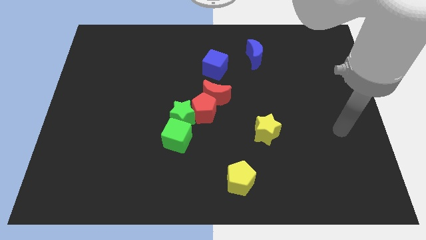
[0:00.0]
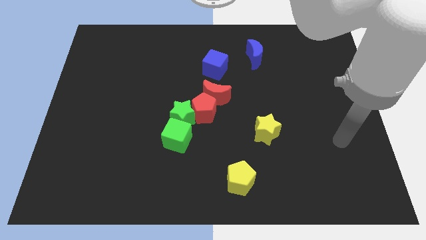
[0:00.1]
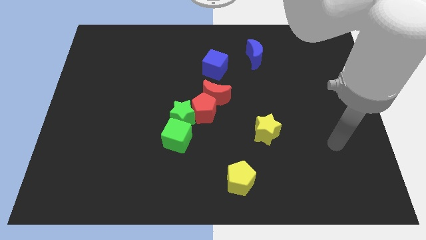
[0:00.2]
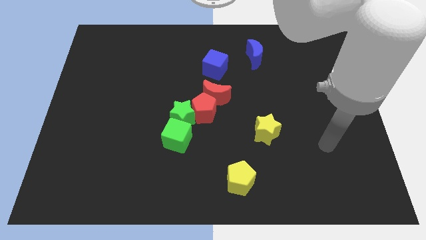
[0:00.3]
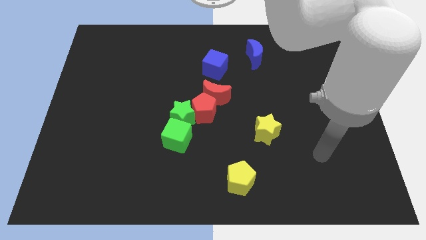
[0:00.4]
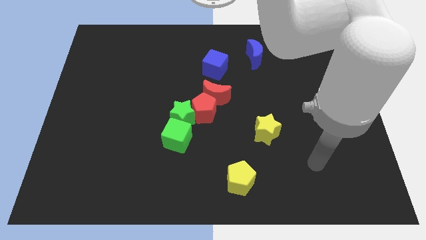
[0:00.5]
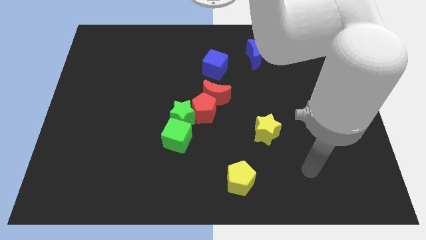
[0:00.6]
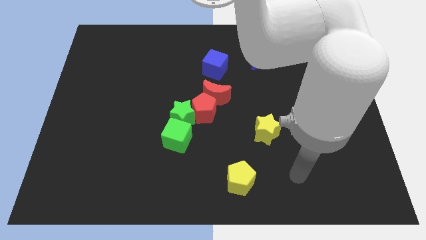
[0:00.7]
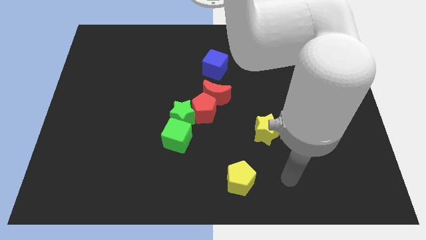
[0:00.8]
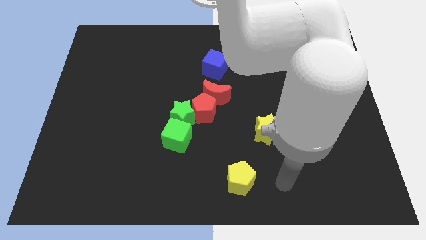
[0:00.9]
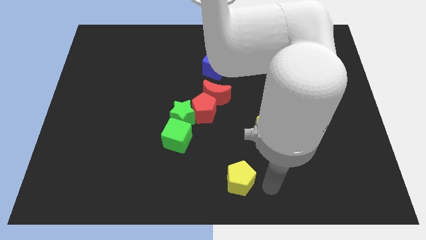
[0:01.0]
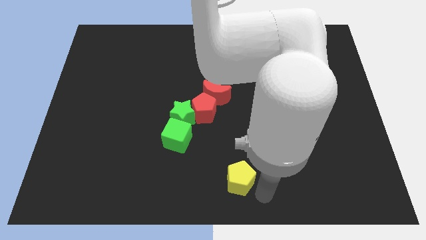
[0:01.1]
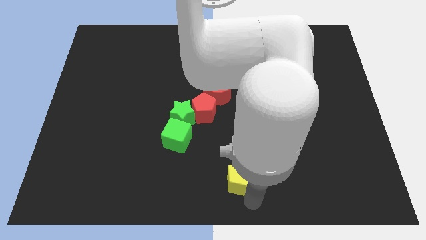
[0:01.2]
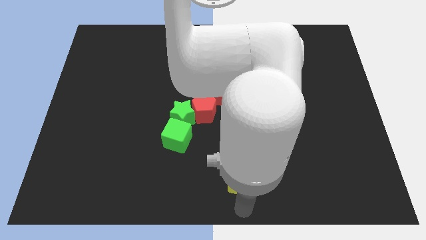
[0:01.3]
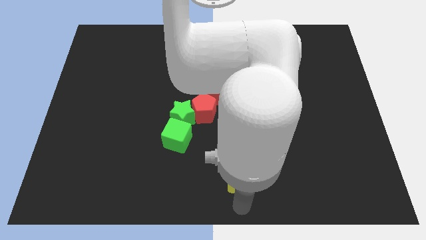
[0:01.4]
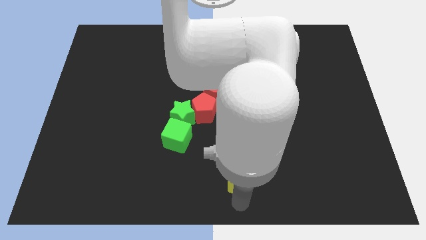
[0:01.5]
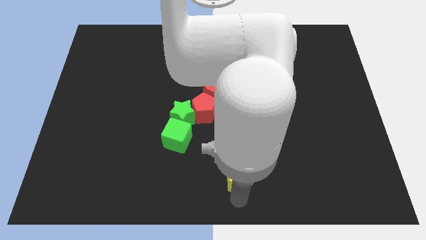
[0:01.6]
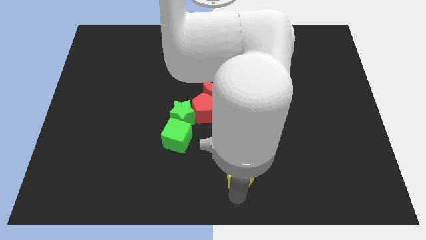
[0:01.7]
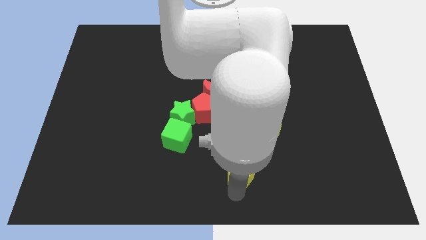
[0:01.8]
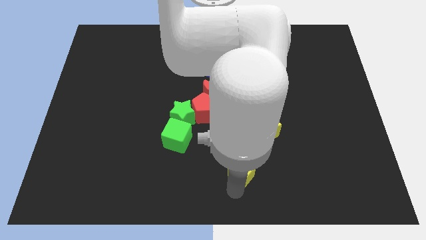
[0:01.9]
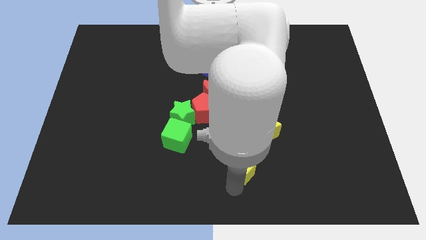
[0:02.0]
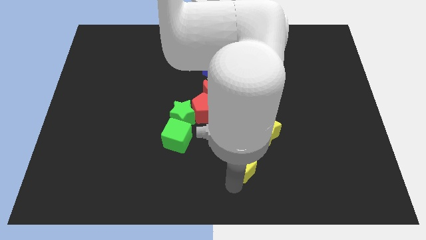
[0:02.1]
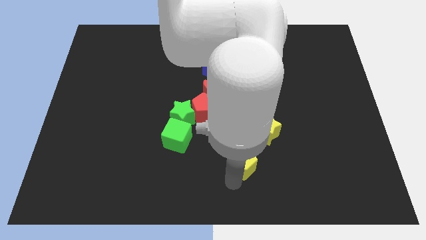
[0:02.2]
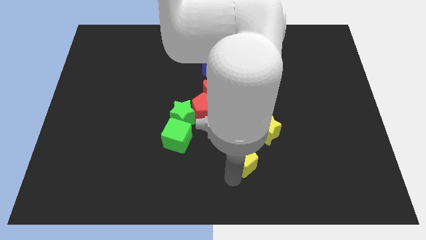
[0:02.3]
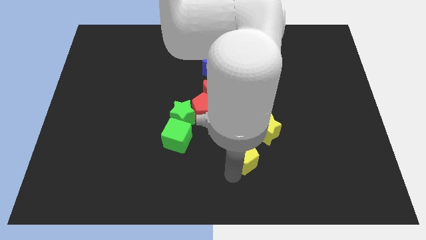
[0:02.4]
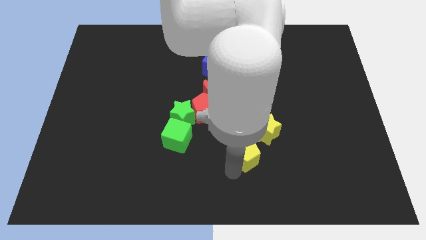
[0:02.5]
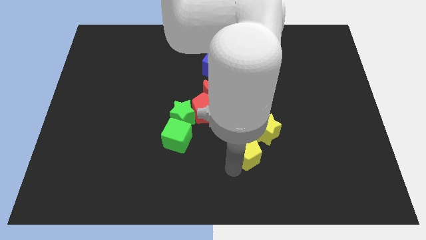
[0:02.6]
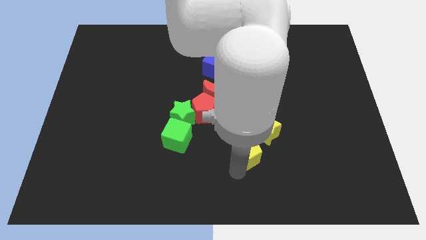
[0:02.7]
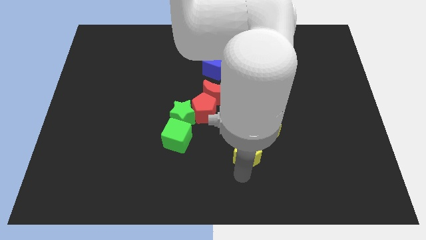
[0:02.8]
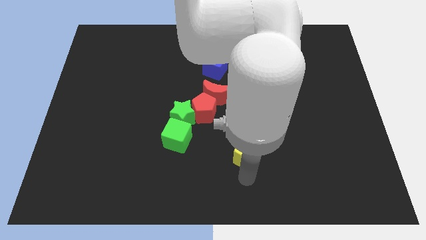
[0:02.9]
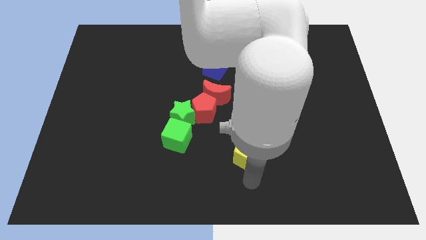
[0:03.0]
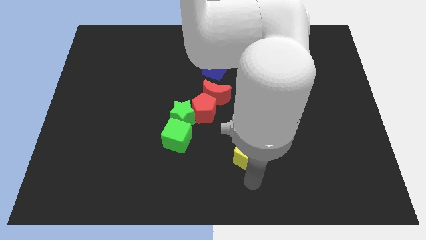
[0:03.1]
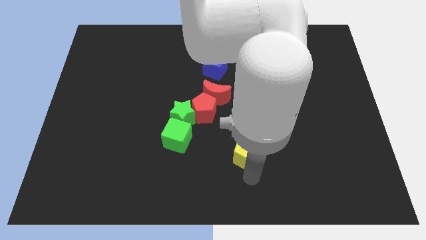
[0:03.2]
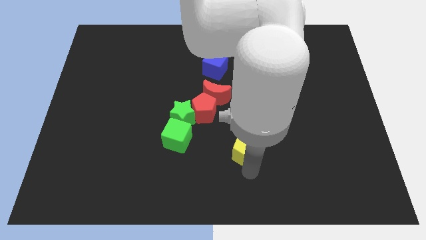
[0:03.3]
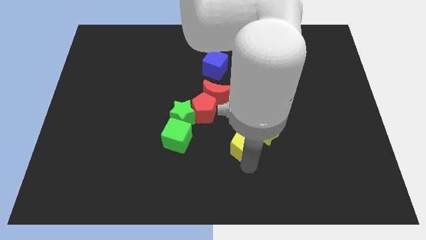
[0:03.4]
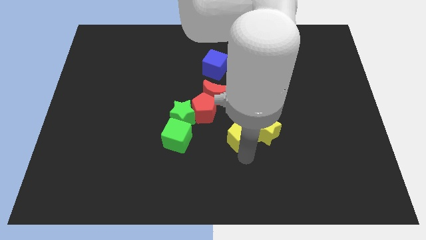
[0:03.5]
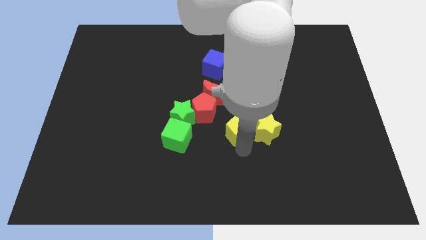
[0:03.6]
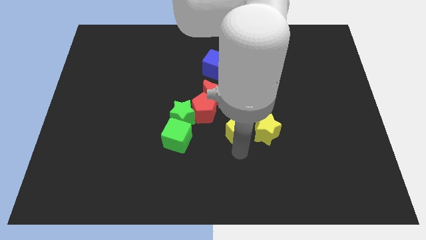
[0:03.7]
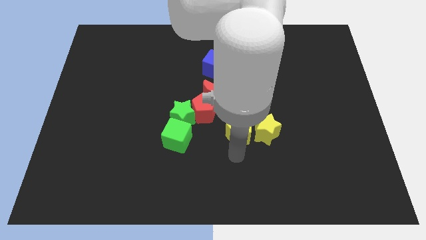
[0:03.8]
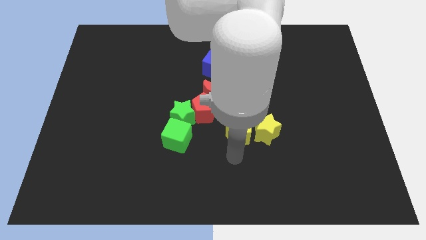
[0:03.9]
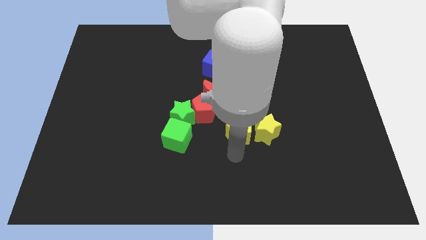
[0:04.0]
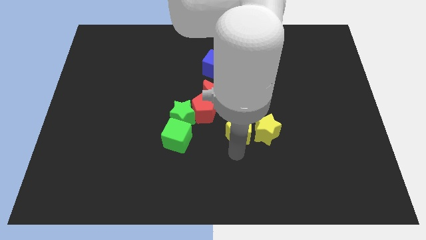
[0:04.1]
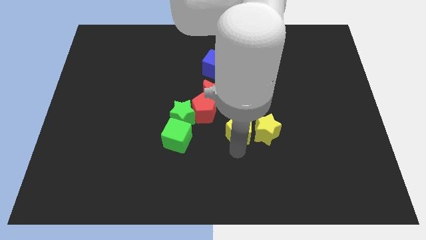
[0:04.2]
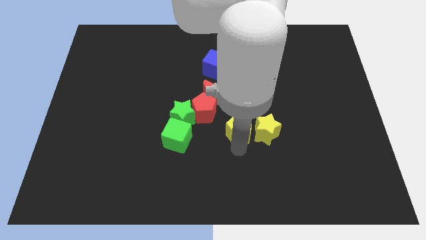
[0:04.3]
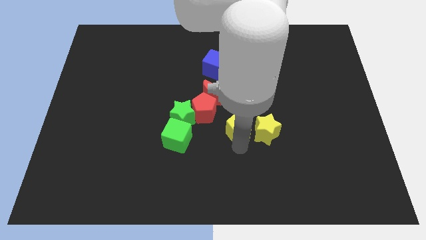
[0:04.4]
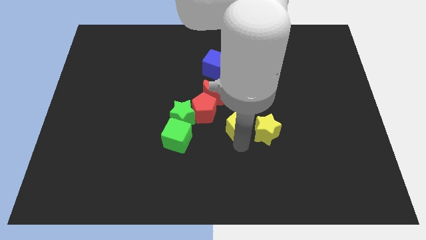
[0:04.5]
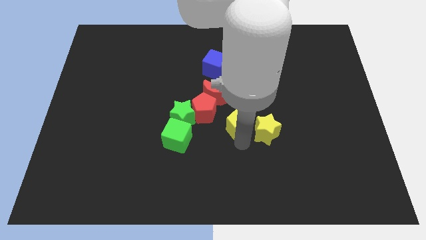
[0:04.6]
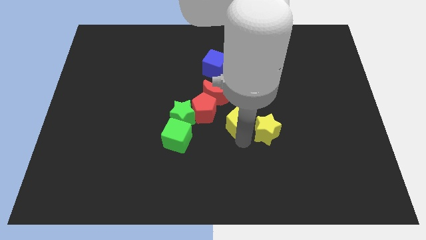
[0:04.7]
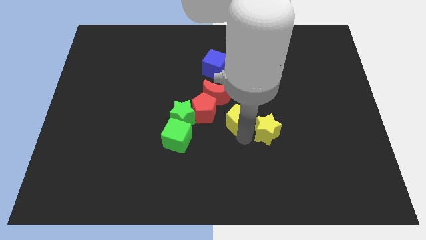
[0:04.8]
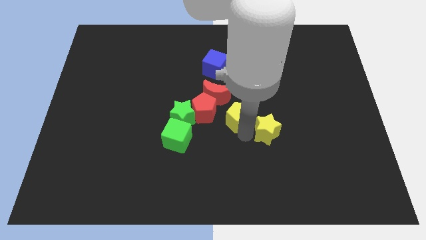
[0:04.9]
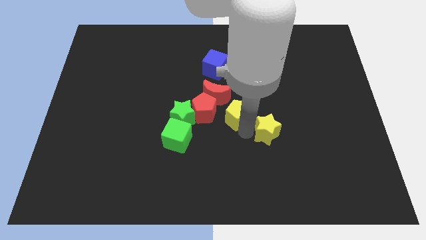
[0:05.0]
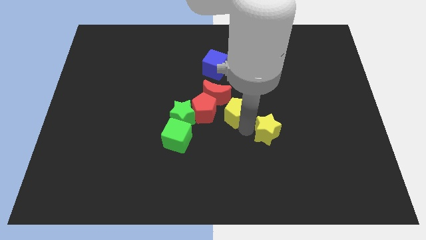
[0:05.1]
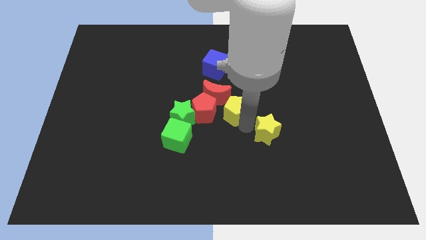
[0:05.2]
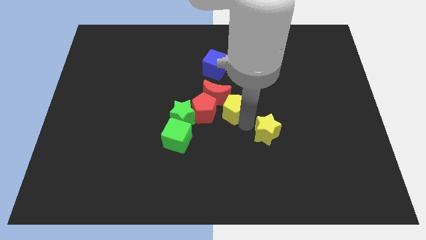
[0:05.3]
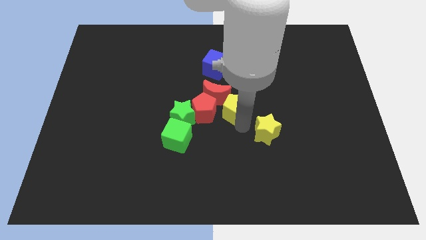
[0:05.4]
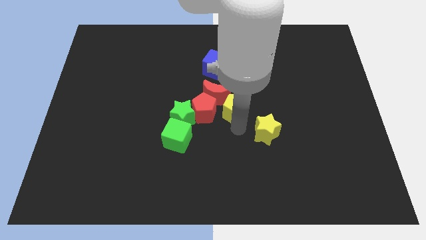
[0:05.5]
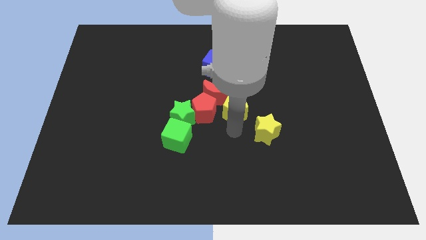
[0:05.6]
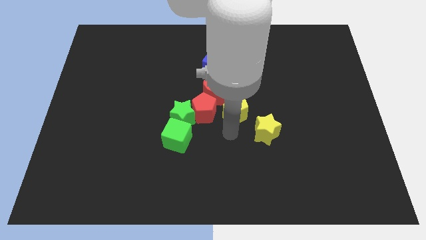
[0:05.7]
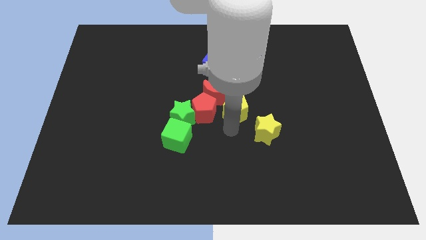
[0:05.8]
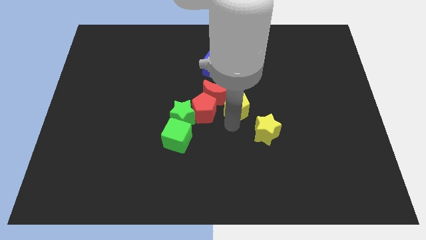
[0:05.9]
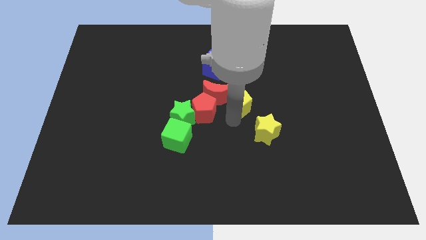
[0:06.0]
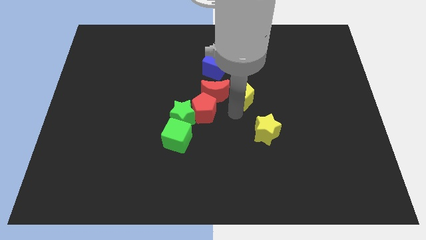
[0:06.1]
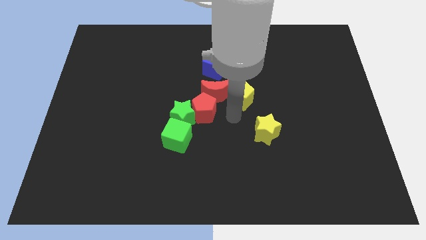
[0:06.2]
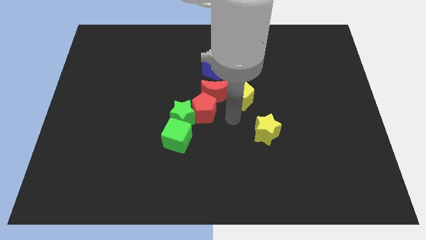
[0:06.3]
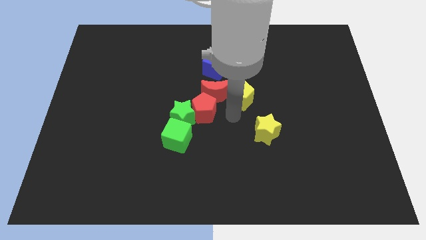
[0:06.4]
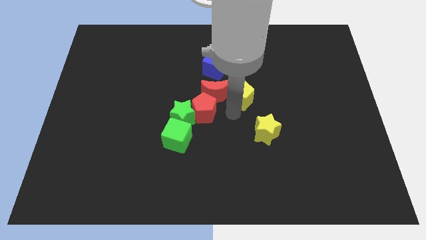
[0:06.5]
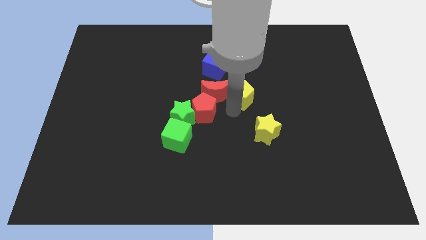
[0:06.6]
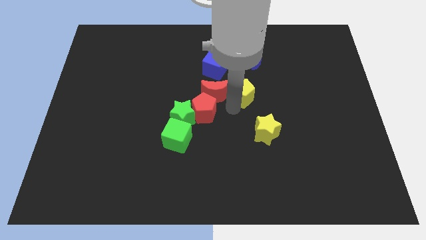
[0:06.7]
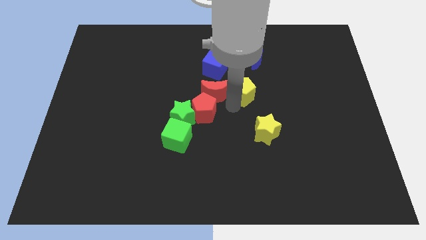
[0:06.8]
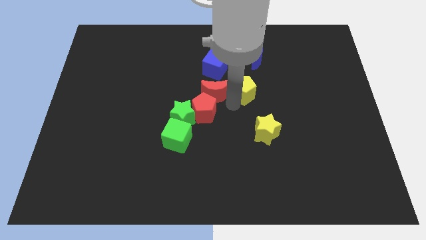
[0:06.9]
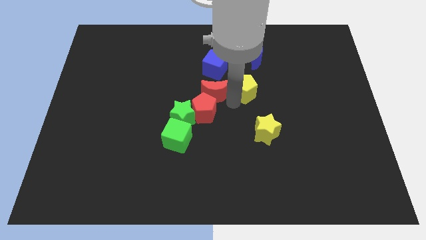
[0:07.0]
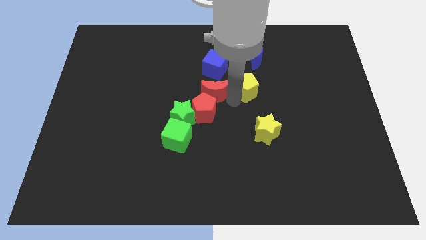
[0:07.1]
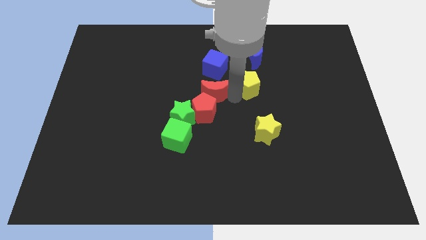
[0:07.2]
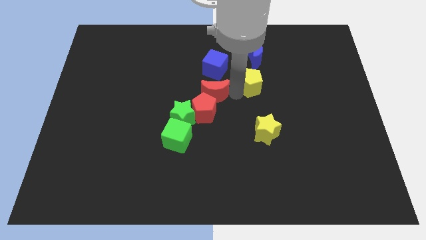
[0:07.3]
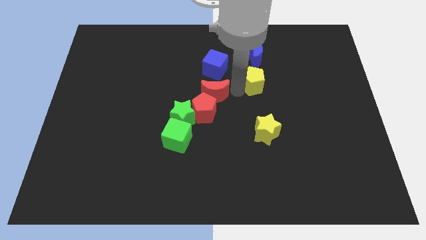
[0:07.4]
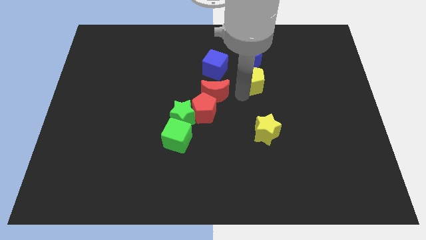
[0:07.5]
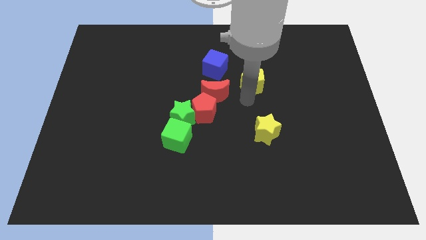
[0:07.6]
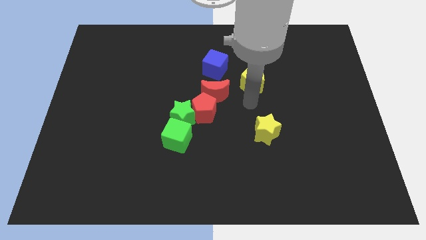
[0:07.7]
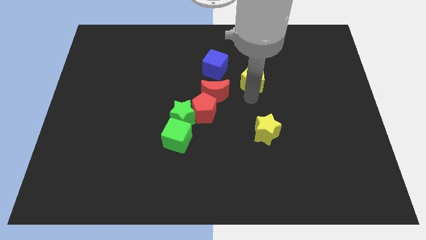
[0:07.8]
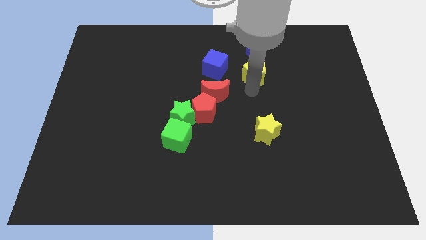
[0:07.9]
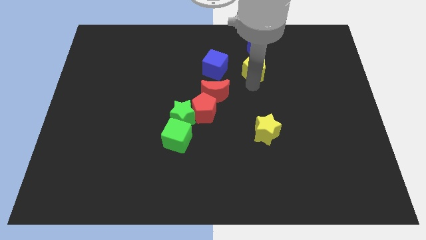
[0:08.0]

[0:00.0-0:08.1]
move the yellow pentagon close to the blue moon
